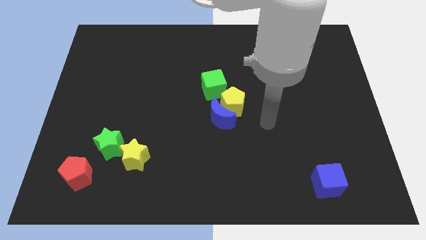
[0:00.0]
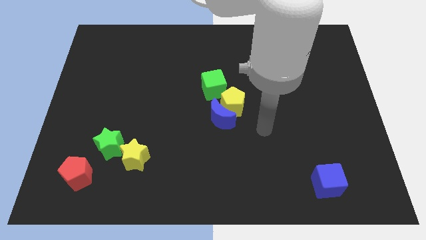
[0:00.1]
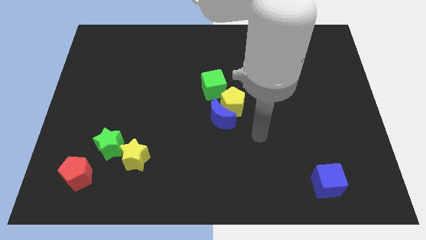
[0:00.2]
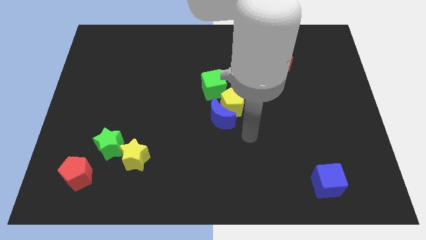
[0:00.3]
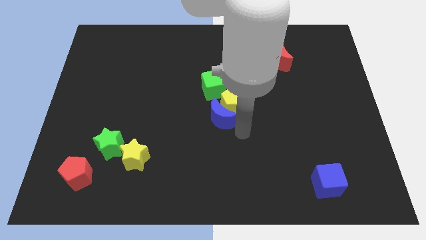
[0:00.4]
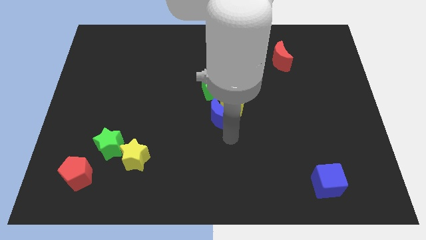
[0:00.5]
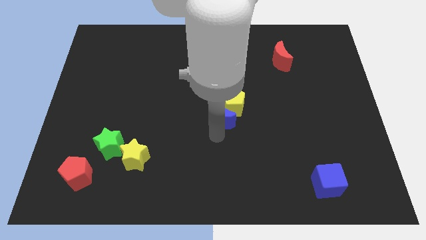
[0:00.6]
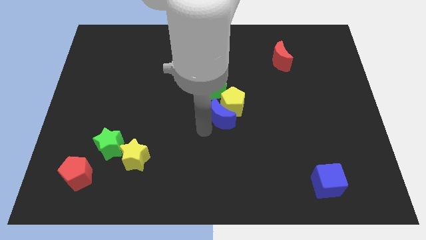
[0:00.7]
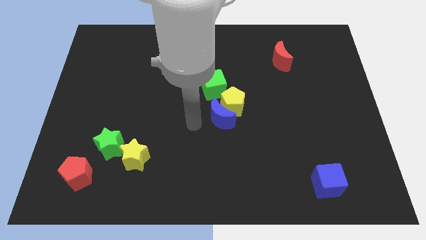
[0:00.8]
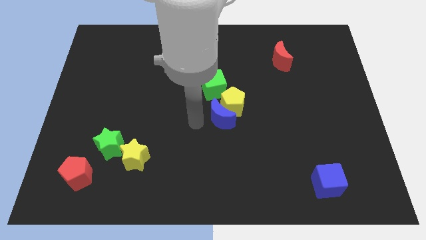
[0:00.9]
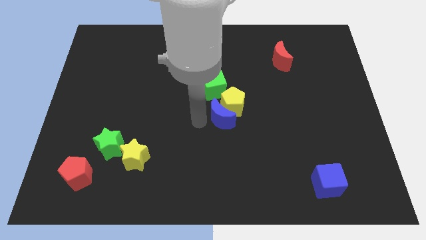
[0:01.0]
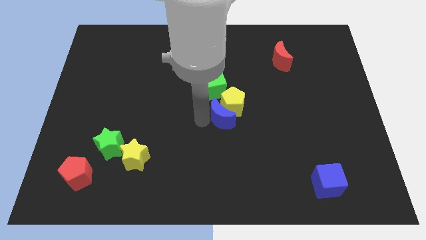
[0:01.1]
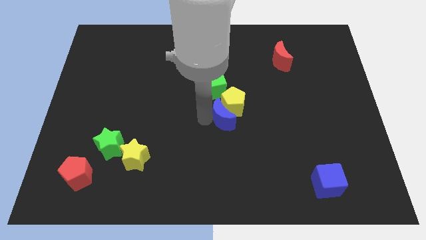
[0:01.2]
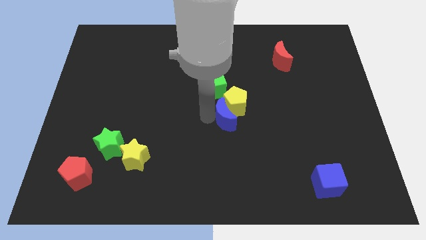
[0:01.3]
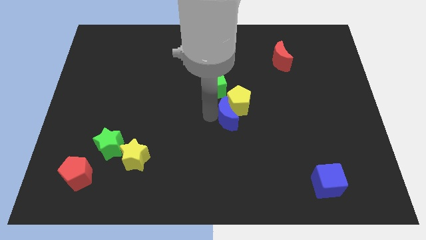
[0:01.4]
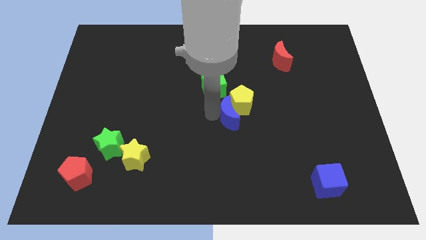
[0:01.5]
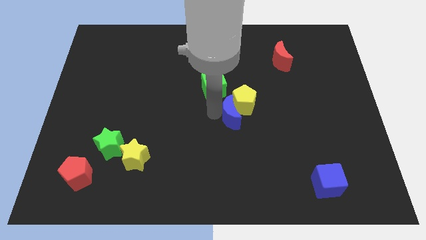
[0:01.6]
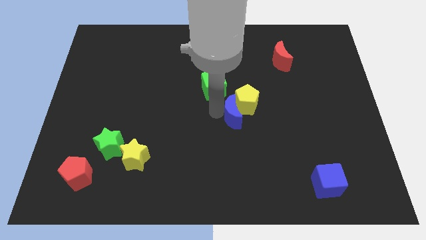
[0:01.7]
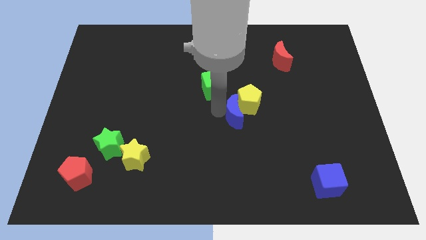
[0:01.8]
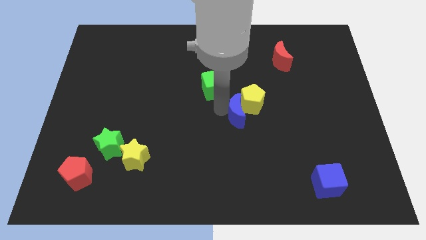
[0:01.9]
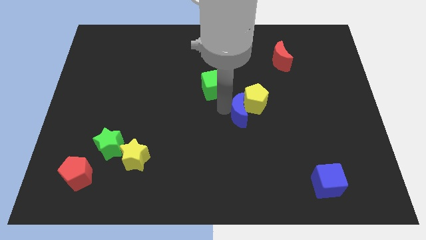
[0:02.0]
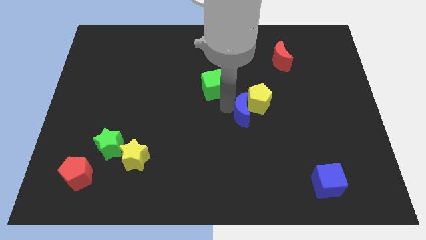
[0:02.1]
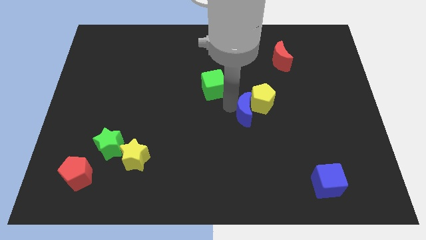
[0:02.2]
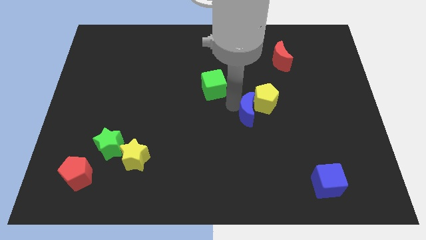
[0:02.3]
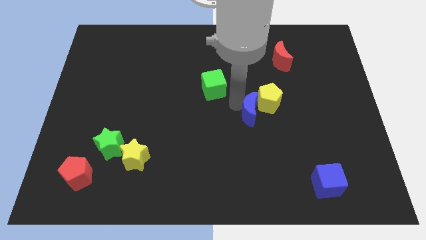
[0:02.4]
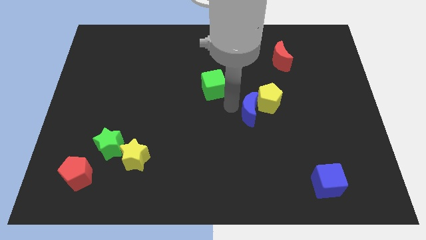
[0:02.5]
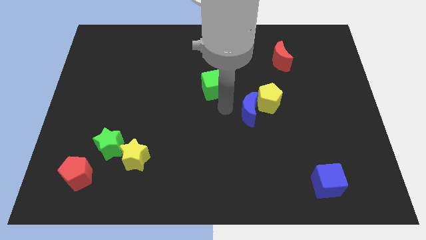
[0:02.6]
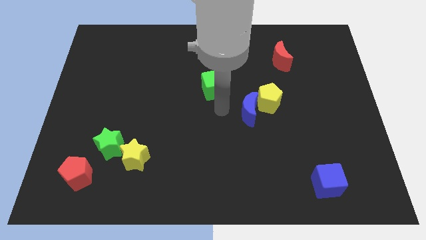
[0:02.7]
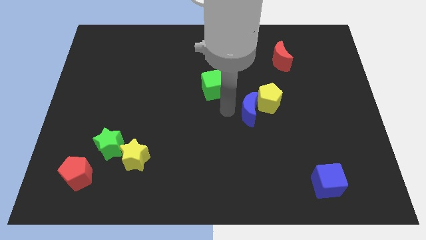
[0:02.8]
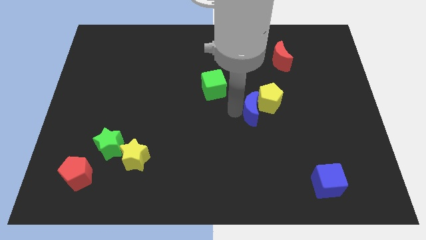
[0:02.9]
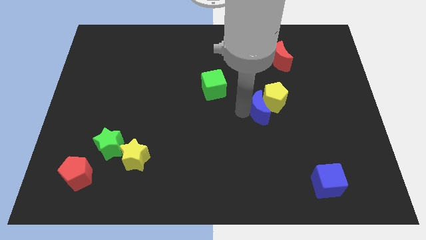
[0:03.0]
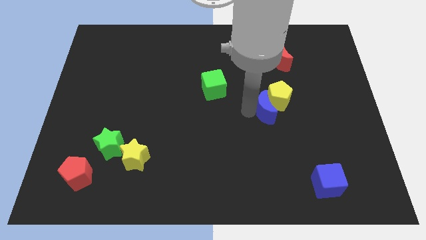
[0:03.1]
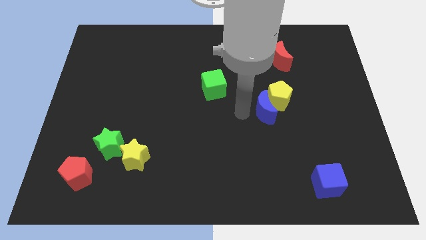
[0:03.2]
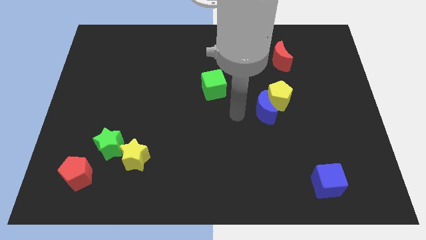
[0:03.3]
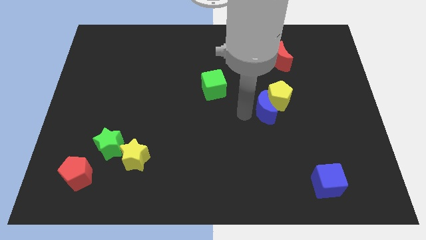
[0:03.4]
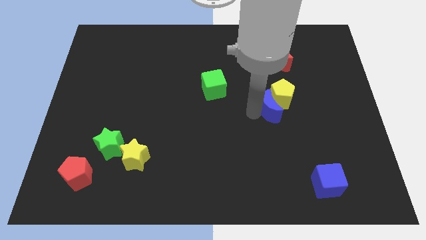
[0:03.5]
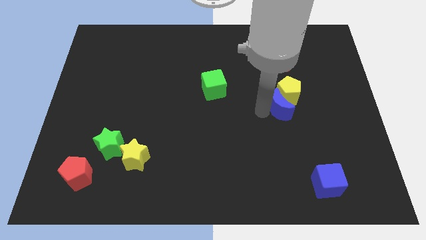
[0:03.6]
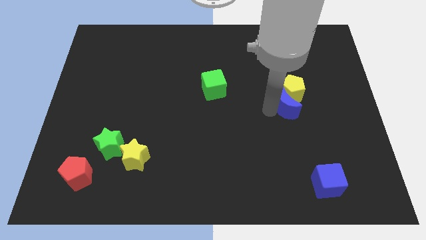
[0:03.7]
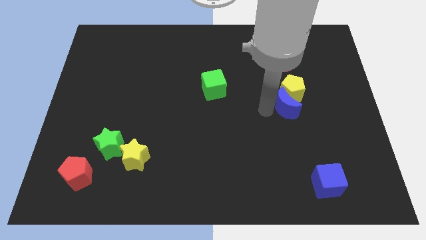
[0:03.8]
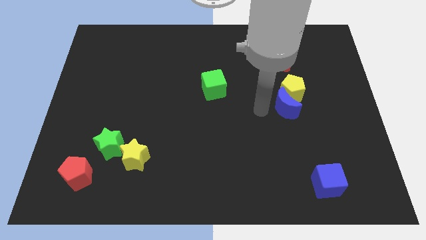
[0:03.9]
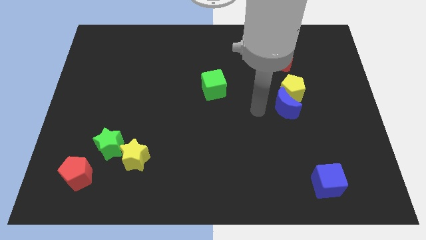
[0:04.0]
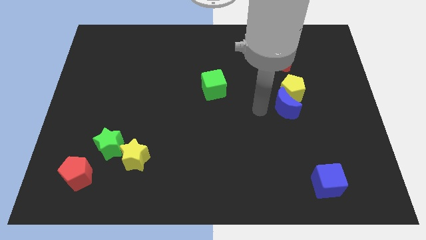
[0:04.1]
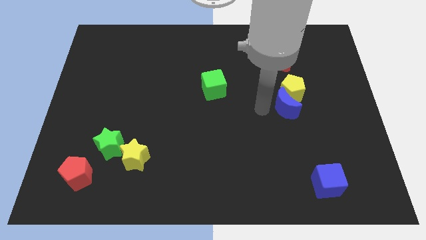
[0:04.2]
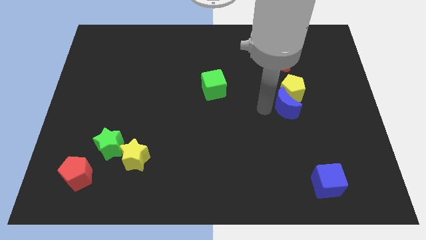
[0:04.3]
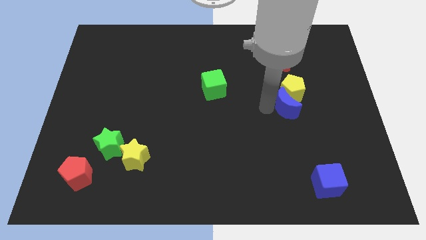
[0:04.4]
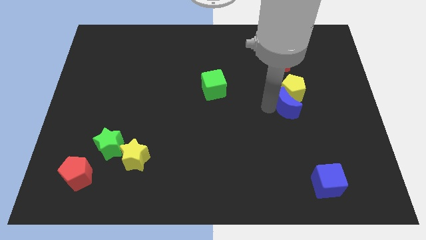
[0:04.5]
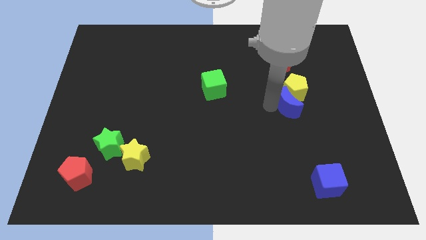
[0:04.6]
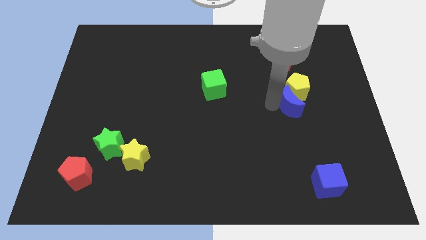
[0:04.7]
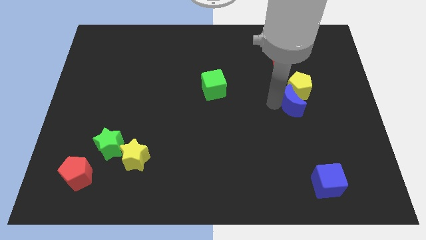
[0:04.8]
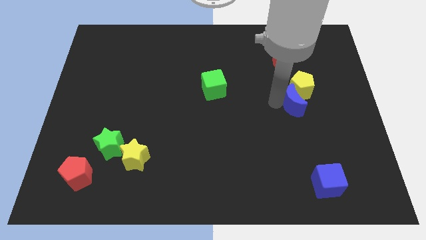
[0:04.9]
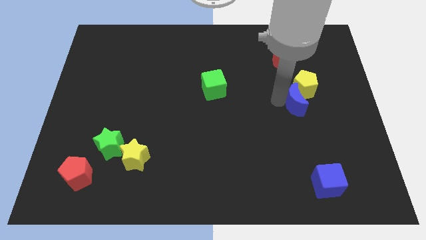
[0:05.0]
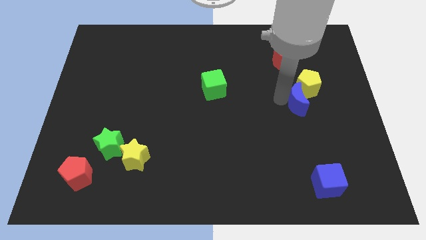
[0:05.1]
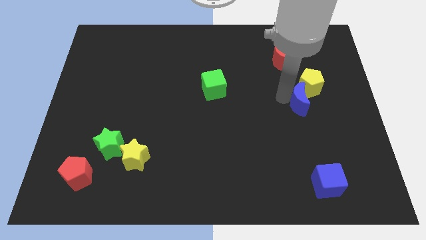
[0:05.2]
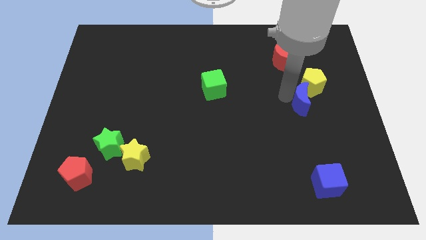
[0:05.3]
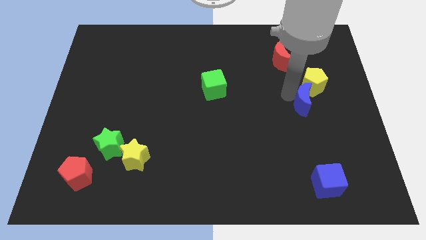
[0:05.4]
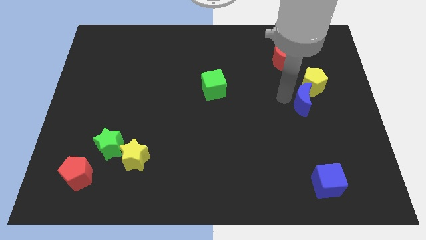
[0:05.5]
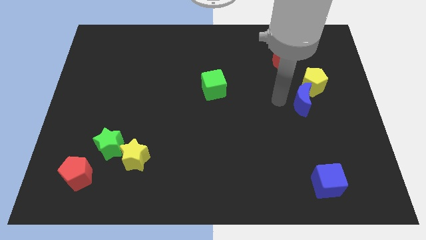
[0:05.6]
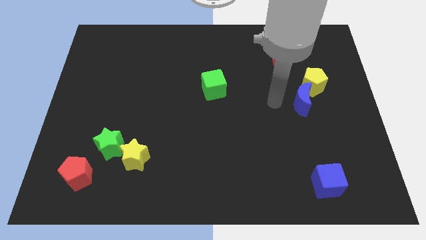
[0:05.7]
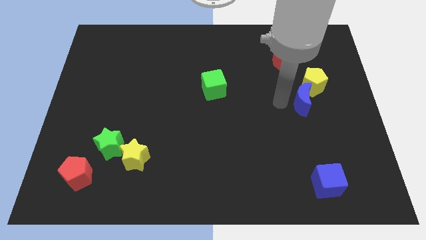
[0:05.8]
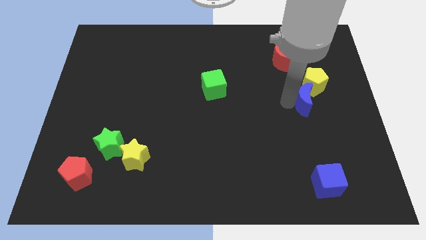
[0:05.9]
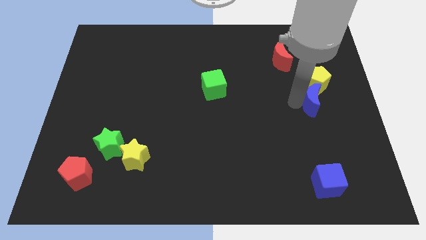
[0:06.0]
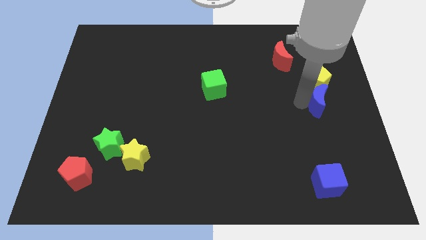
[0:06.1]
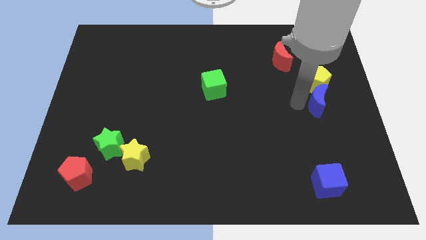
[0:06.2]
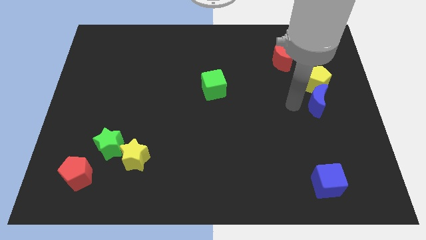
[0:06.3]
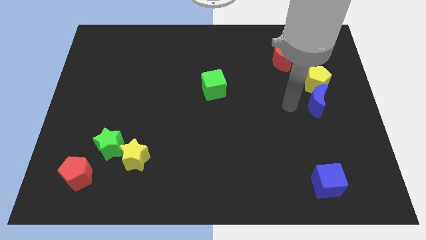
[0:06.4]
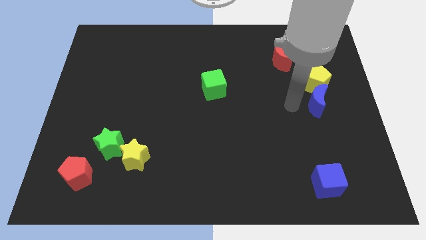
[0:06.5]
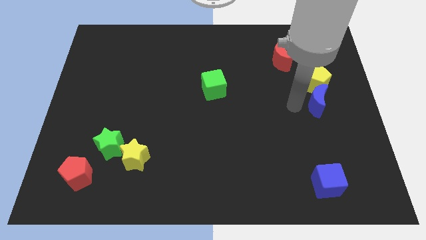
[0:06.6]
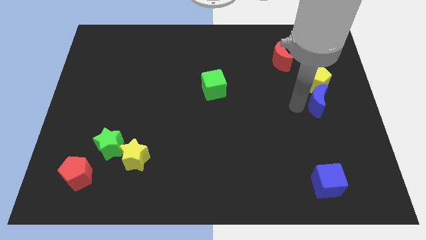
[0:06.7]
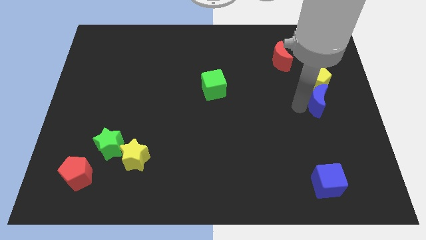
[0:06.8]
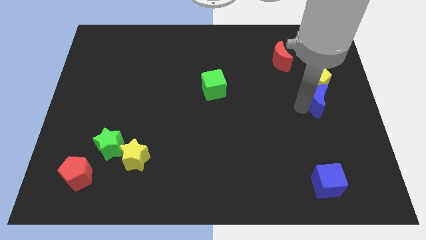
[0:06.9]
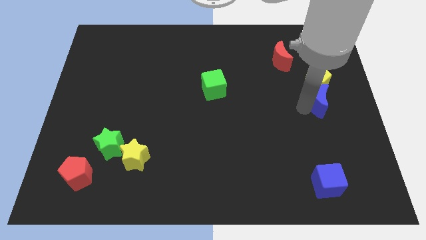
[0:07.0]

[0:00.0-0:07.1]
push the blue moon to the right side

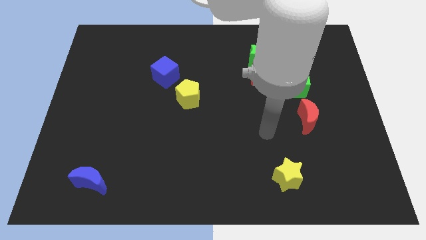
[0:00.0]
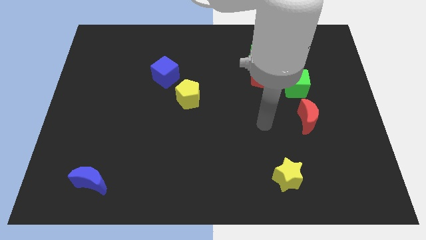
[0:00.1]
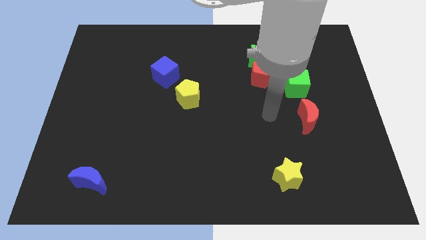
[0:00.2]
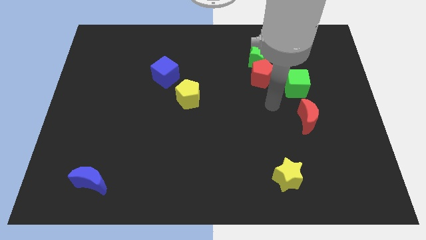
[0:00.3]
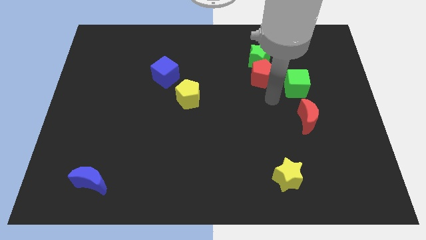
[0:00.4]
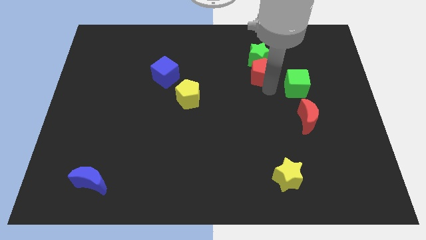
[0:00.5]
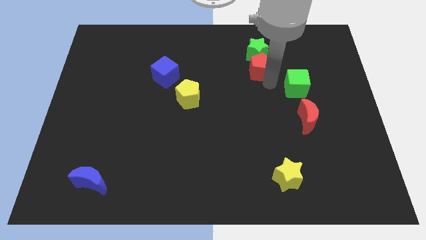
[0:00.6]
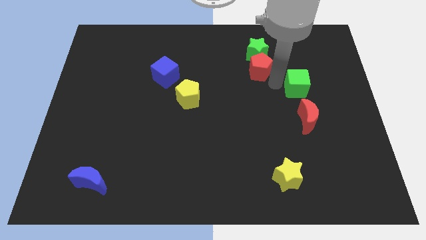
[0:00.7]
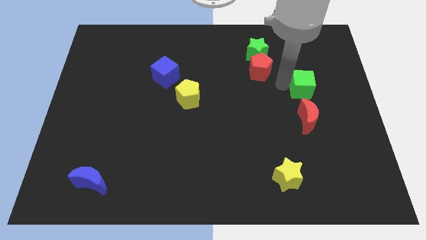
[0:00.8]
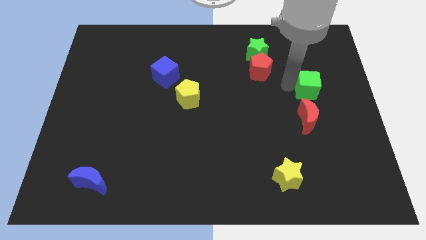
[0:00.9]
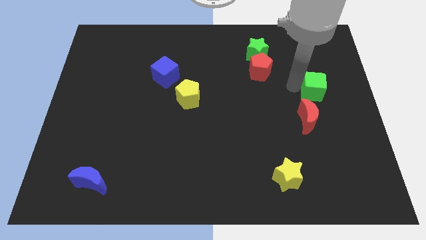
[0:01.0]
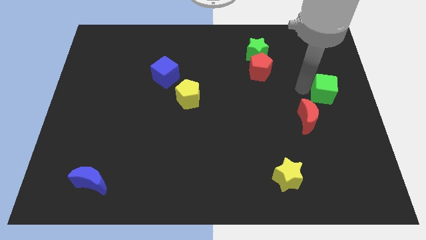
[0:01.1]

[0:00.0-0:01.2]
slide the green cube to the right side of the board
